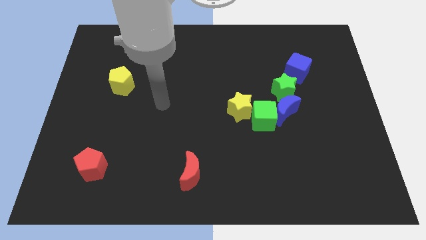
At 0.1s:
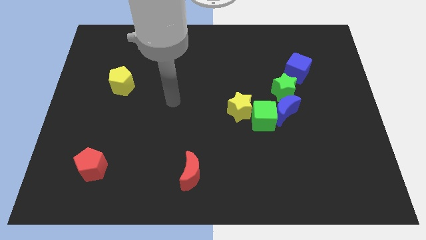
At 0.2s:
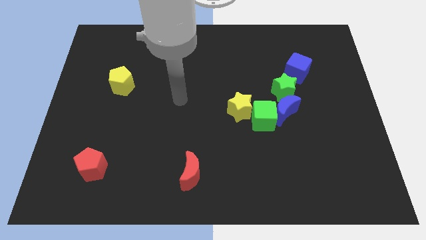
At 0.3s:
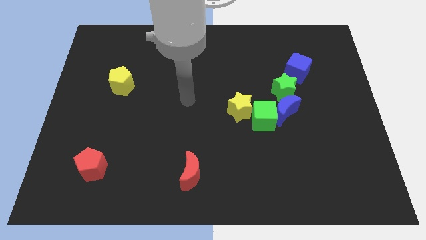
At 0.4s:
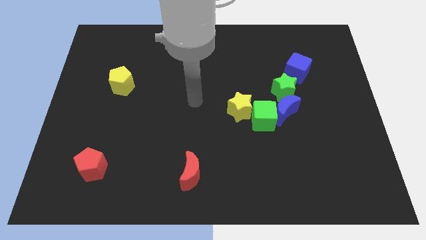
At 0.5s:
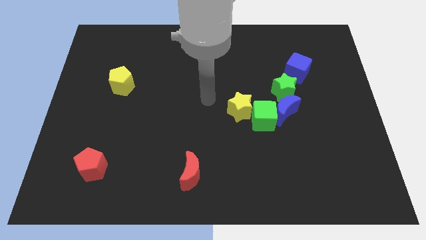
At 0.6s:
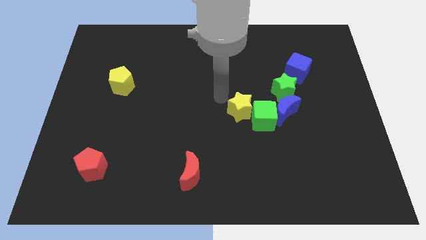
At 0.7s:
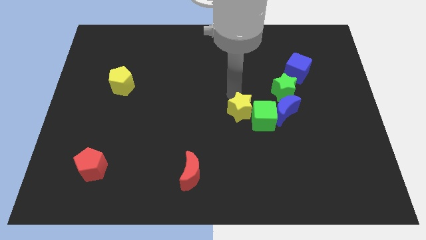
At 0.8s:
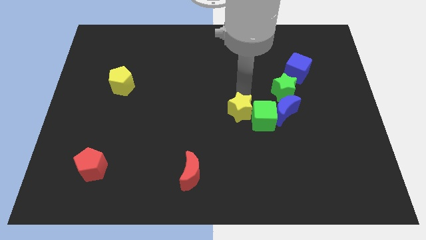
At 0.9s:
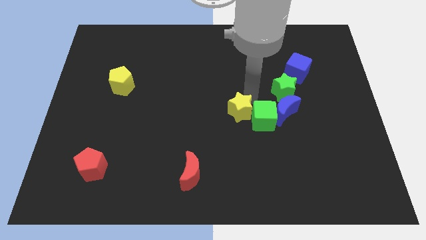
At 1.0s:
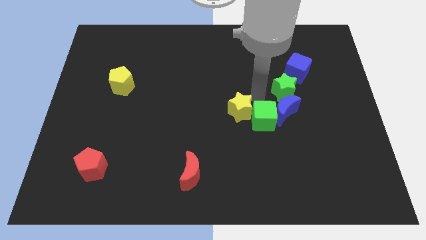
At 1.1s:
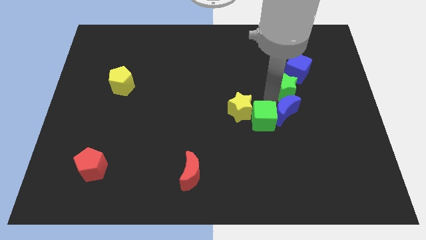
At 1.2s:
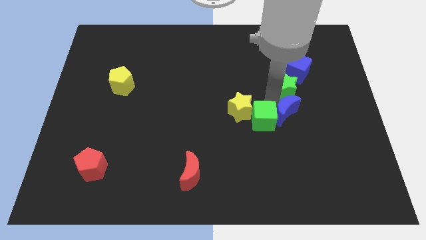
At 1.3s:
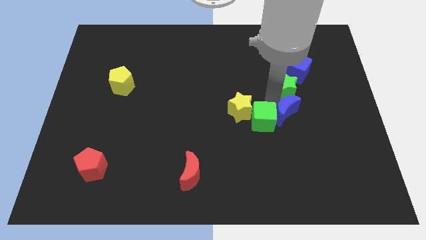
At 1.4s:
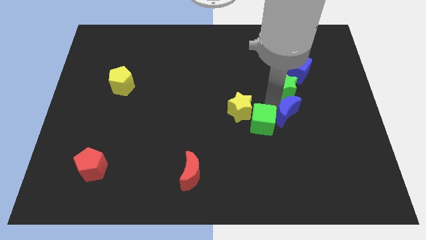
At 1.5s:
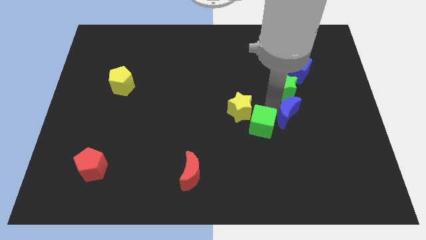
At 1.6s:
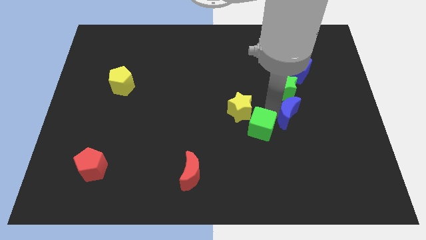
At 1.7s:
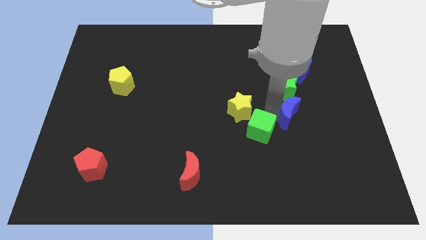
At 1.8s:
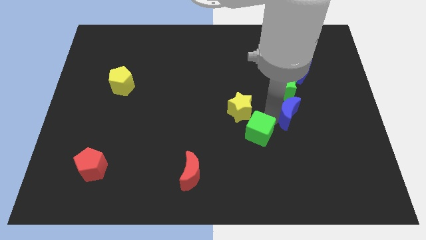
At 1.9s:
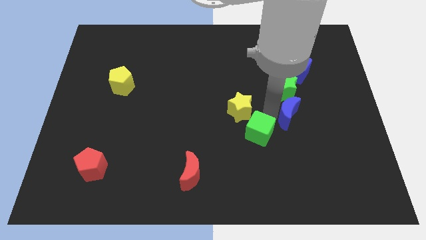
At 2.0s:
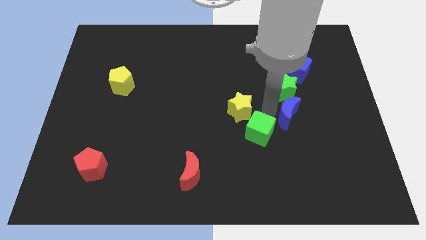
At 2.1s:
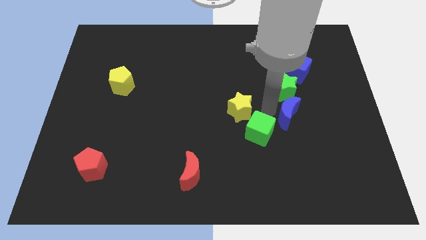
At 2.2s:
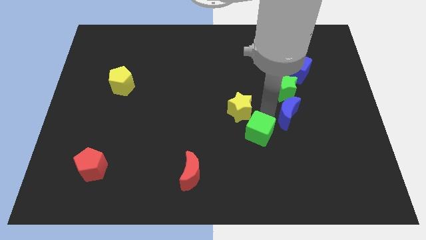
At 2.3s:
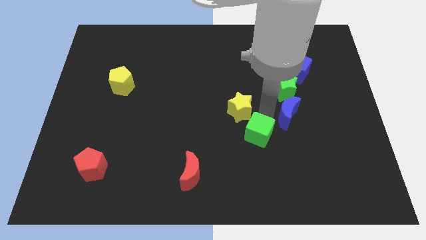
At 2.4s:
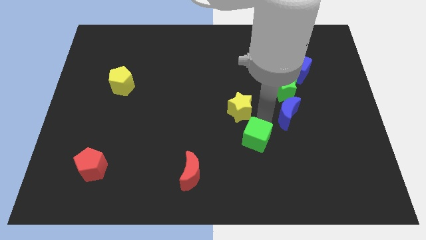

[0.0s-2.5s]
pull the green cube apart from the blue moon, yellow star, and green star

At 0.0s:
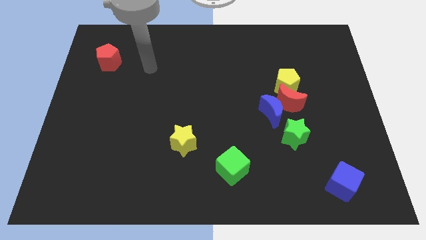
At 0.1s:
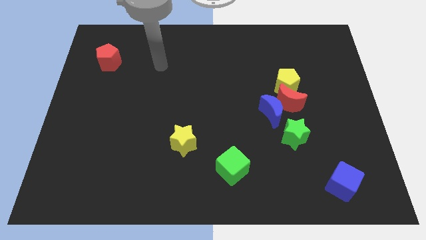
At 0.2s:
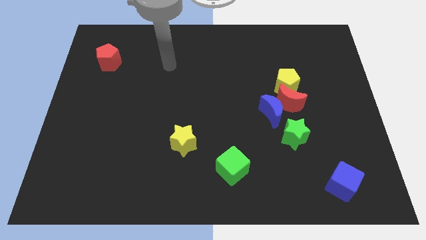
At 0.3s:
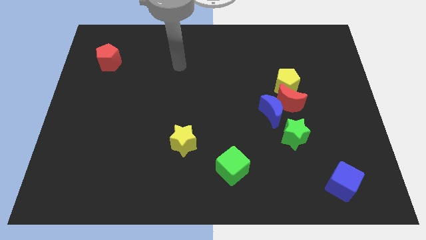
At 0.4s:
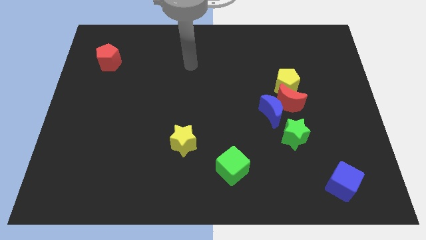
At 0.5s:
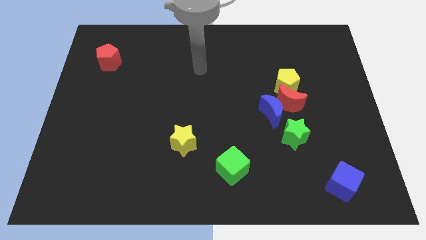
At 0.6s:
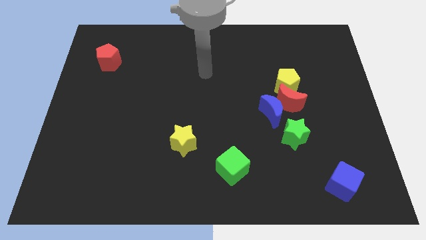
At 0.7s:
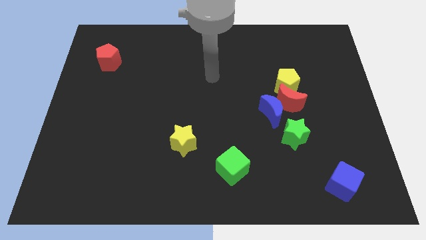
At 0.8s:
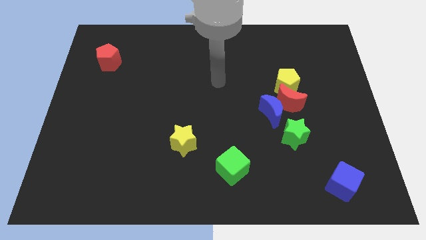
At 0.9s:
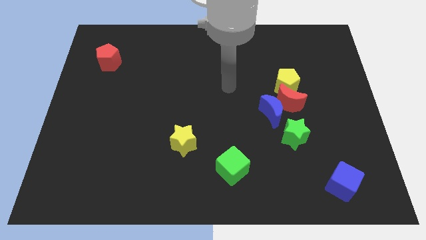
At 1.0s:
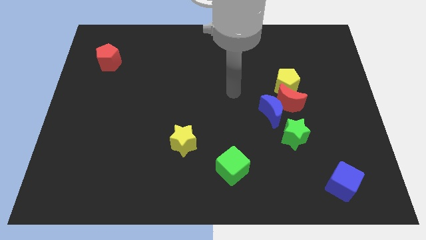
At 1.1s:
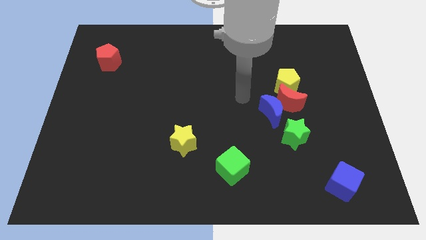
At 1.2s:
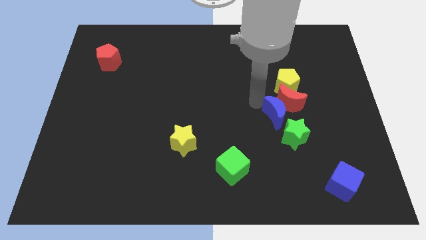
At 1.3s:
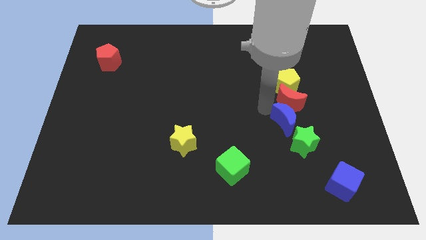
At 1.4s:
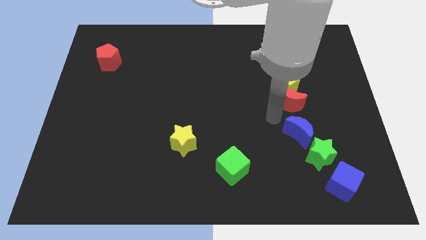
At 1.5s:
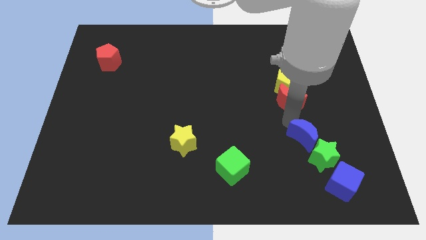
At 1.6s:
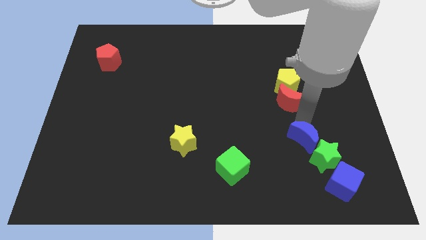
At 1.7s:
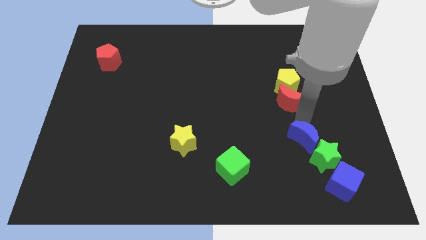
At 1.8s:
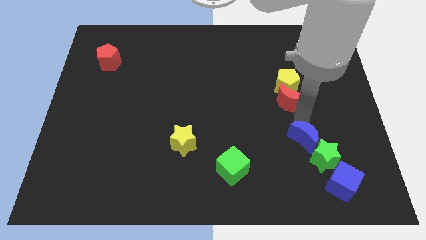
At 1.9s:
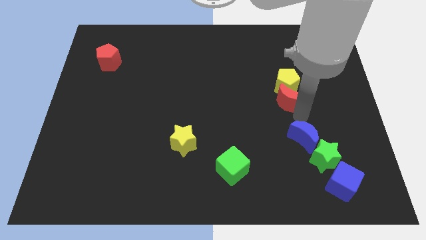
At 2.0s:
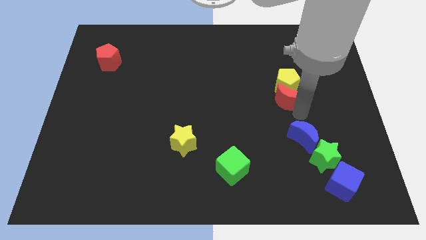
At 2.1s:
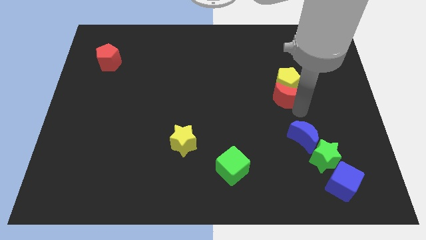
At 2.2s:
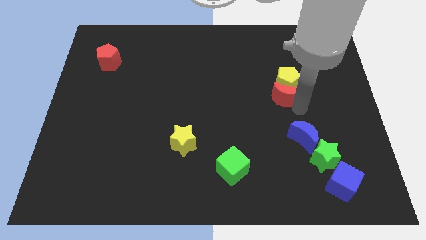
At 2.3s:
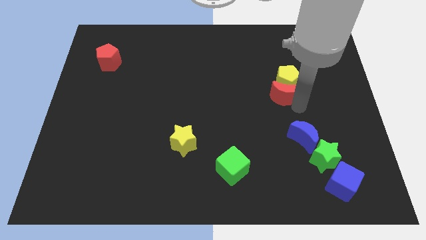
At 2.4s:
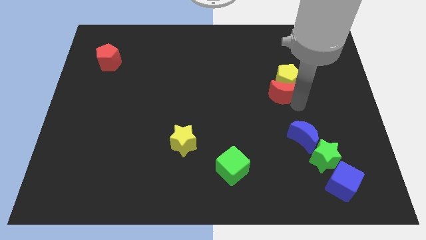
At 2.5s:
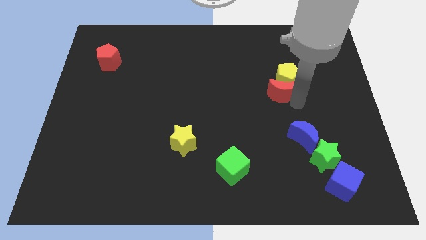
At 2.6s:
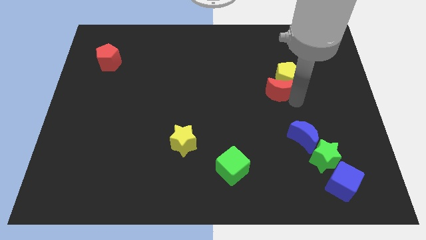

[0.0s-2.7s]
separate the red moon from the group of blocks

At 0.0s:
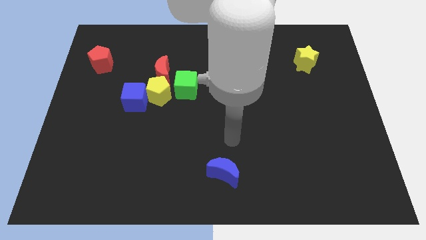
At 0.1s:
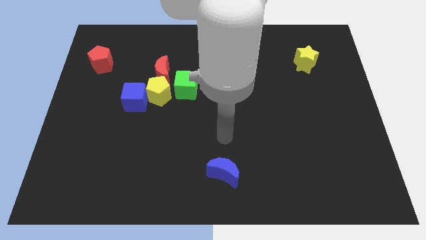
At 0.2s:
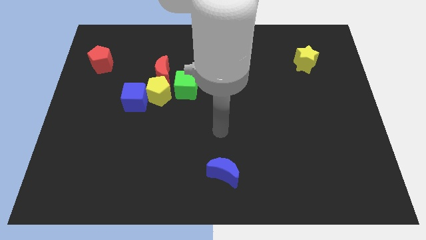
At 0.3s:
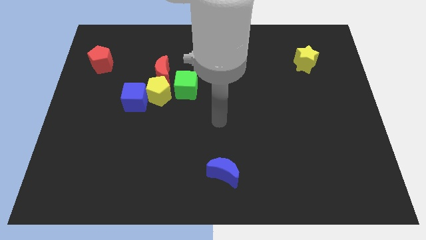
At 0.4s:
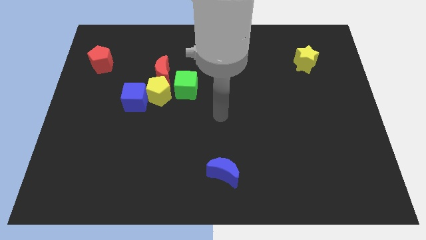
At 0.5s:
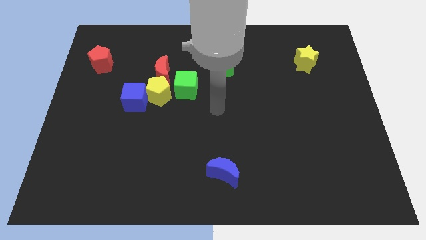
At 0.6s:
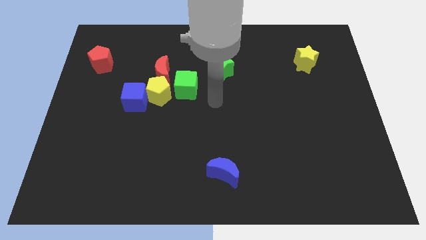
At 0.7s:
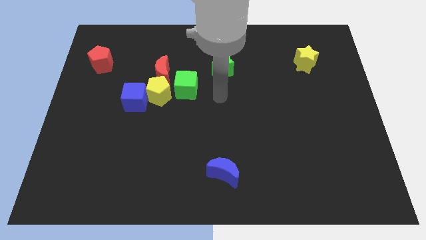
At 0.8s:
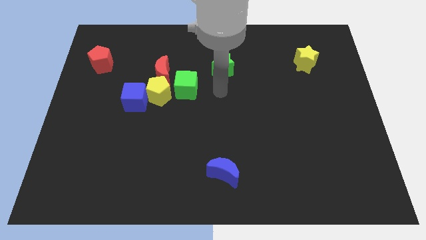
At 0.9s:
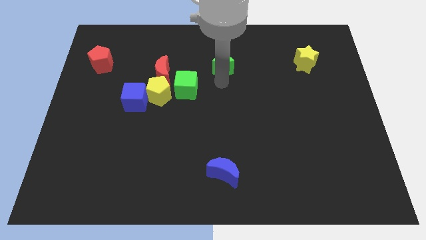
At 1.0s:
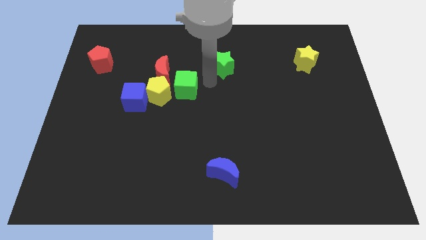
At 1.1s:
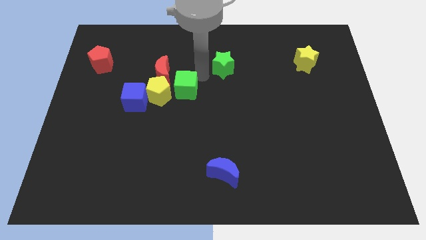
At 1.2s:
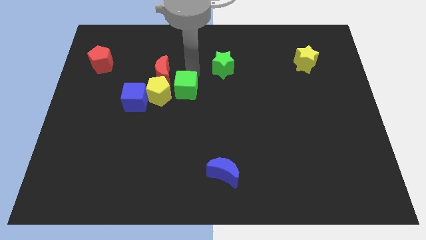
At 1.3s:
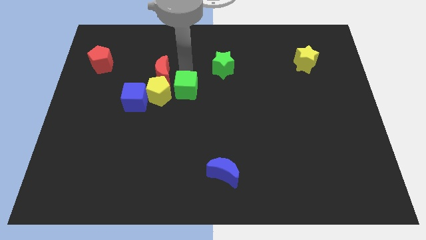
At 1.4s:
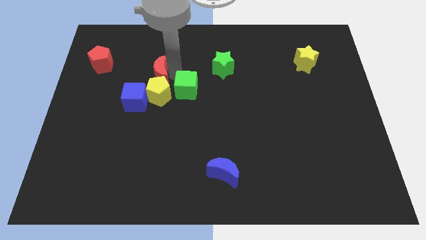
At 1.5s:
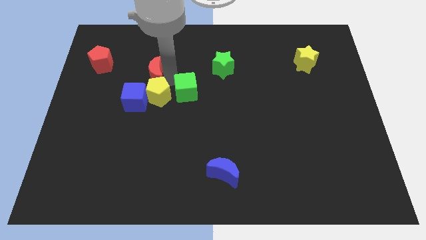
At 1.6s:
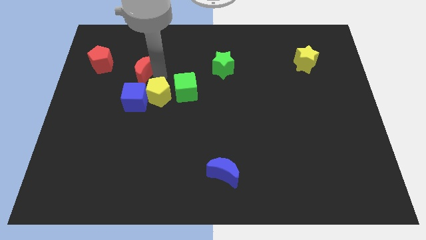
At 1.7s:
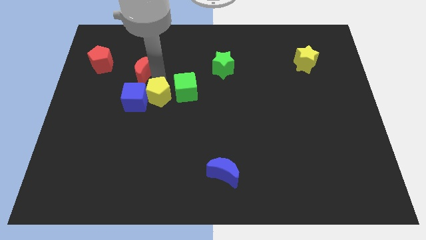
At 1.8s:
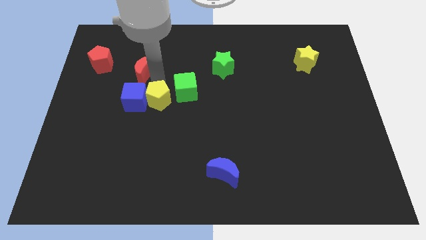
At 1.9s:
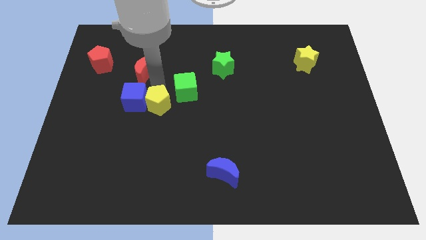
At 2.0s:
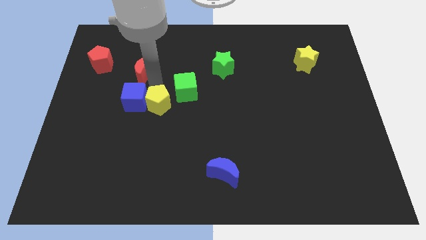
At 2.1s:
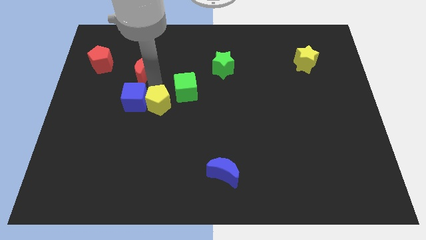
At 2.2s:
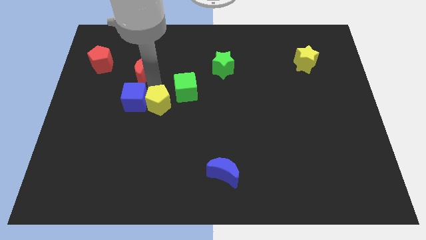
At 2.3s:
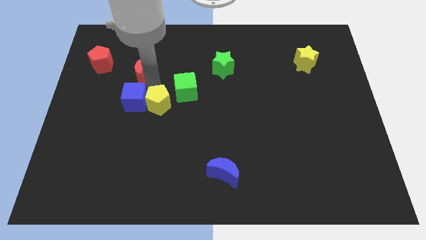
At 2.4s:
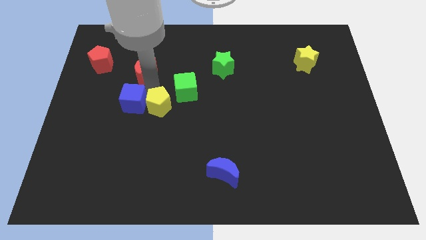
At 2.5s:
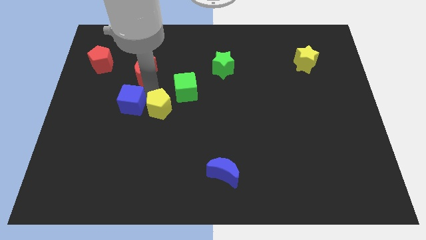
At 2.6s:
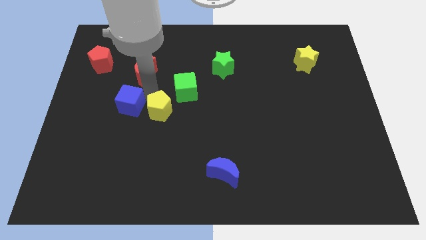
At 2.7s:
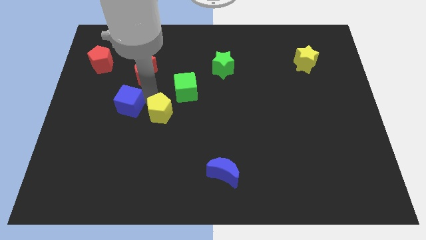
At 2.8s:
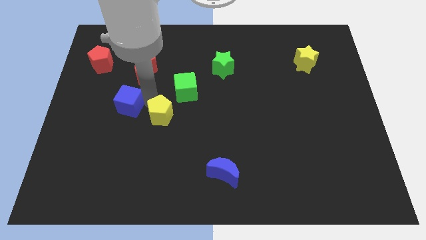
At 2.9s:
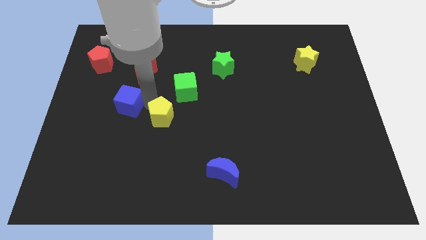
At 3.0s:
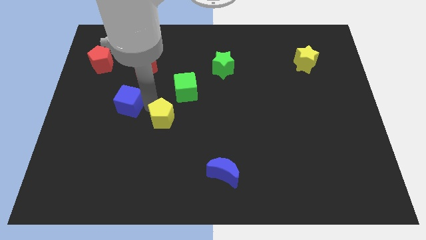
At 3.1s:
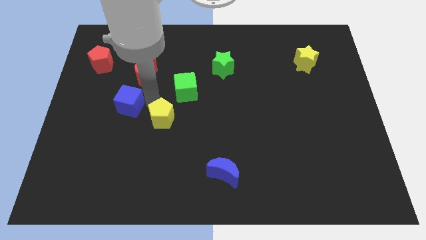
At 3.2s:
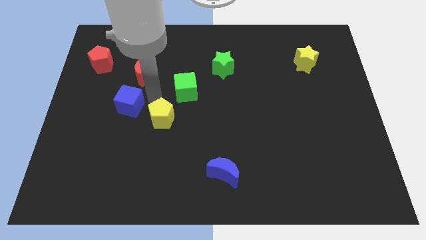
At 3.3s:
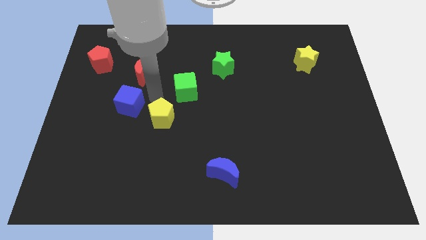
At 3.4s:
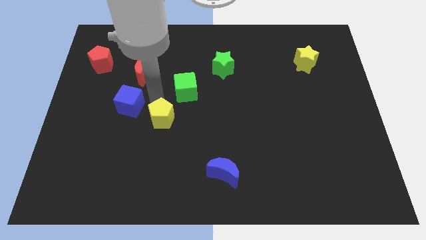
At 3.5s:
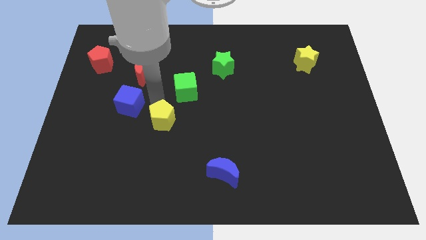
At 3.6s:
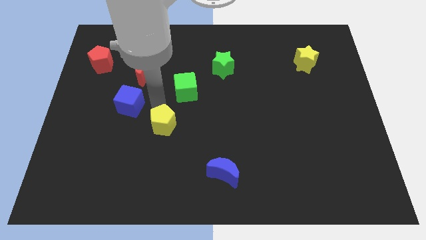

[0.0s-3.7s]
separate the yellow pentagon from the group

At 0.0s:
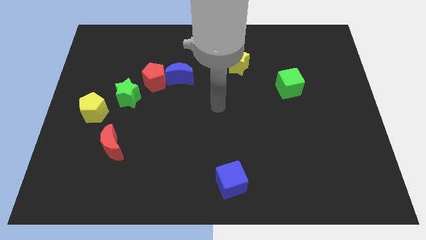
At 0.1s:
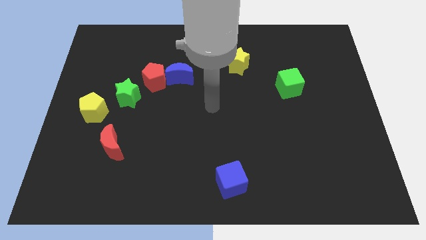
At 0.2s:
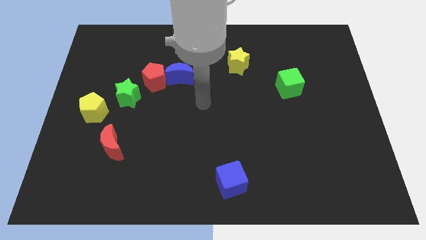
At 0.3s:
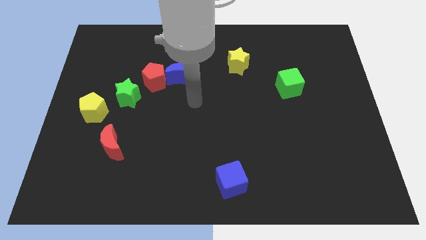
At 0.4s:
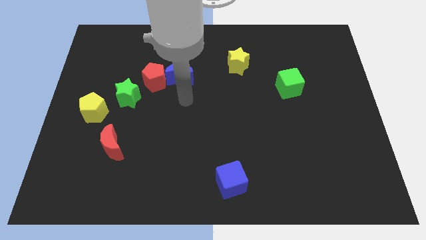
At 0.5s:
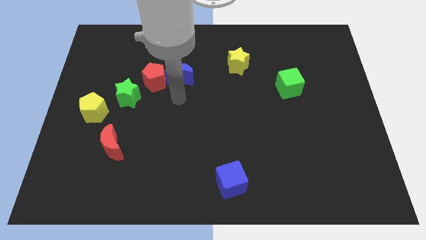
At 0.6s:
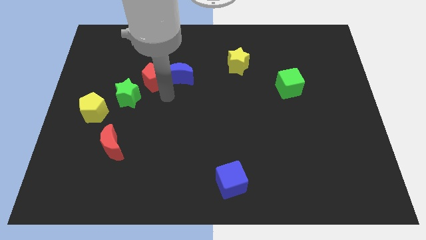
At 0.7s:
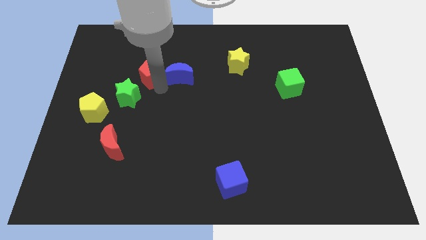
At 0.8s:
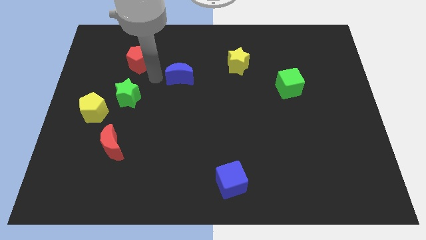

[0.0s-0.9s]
move the blue moon away from the red pentagon
